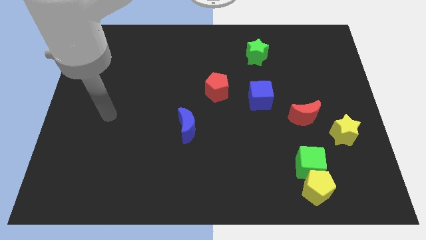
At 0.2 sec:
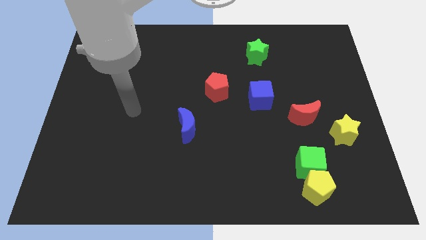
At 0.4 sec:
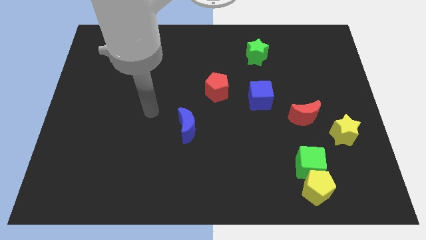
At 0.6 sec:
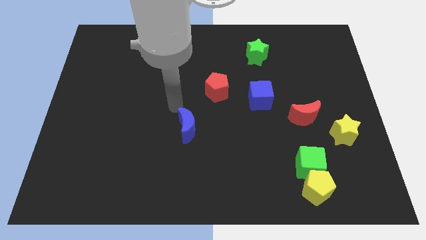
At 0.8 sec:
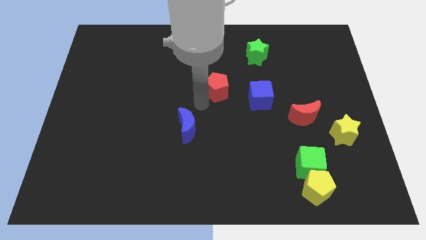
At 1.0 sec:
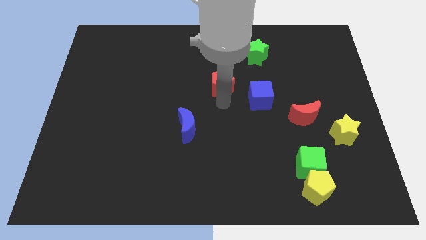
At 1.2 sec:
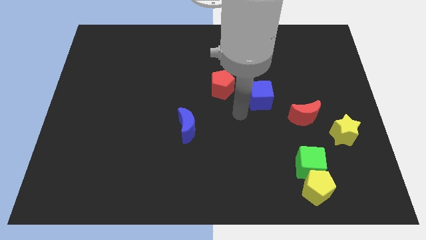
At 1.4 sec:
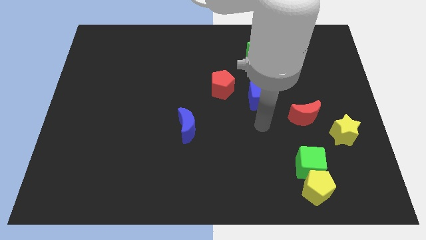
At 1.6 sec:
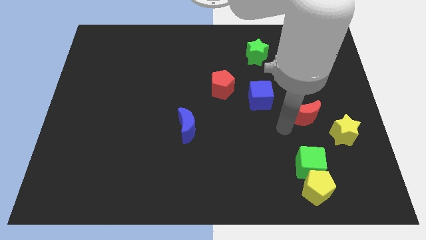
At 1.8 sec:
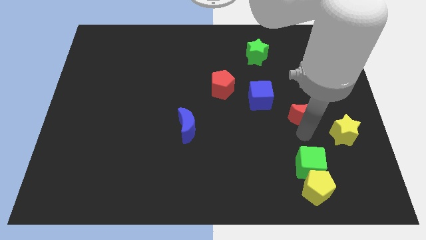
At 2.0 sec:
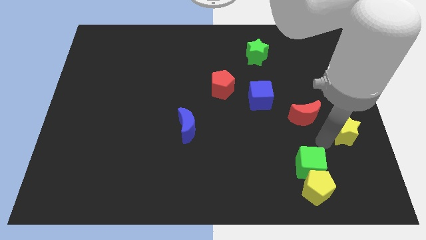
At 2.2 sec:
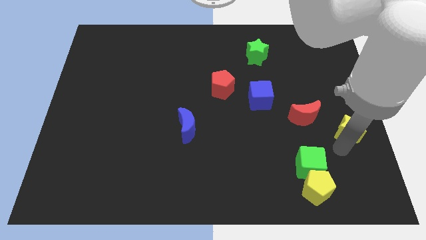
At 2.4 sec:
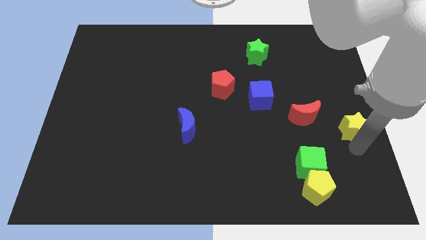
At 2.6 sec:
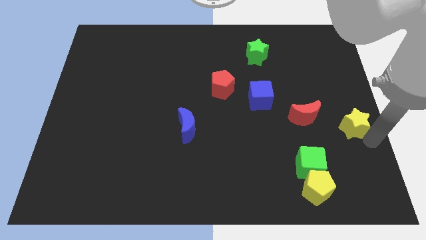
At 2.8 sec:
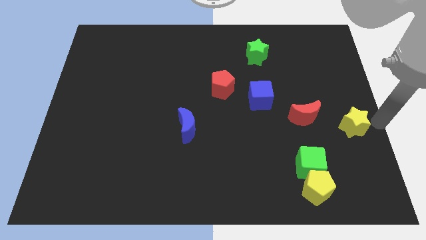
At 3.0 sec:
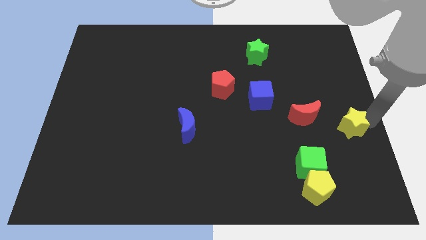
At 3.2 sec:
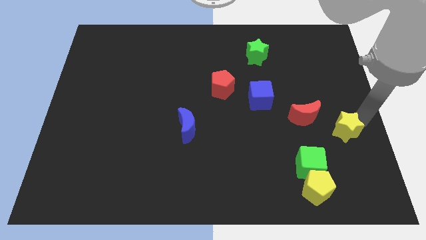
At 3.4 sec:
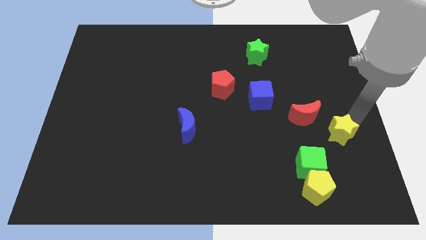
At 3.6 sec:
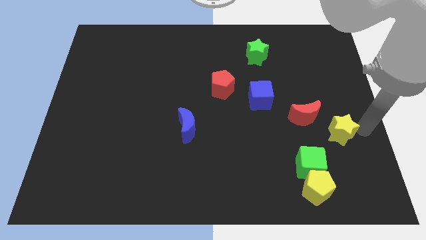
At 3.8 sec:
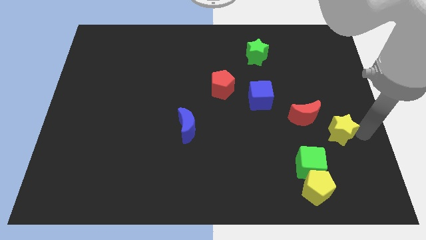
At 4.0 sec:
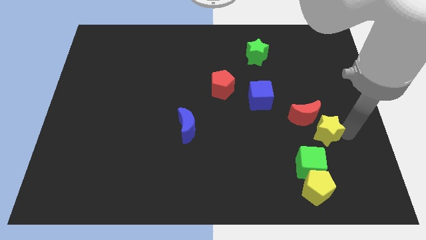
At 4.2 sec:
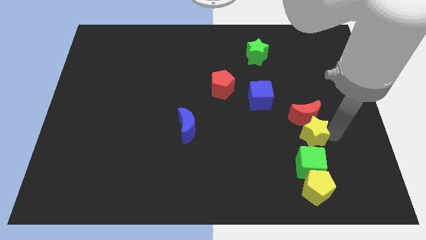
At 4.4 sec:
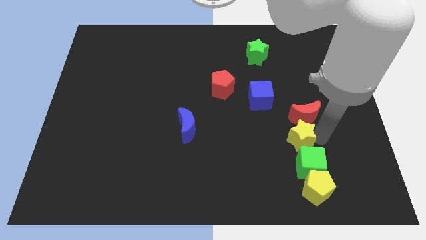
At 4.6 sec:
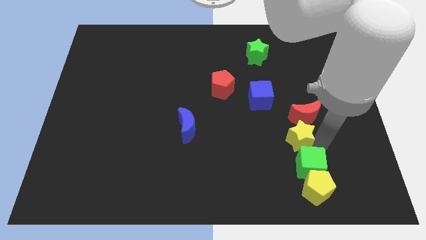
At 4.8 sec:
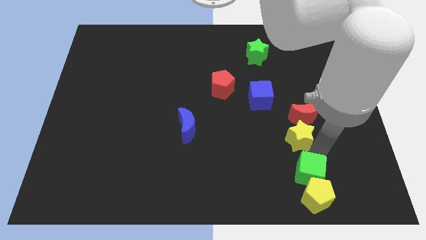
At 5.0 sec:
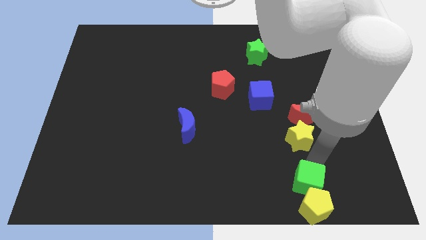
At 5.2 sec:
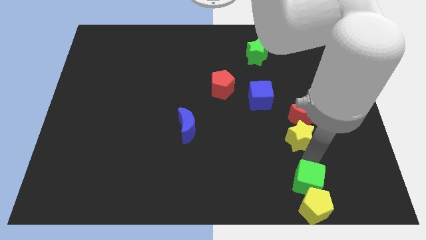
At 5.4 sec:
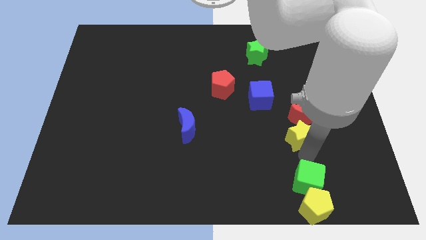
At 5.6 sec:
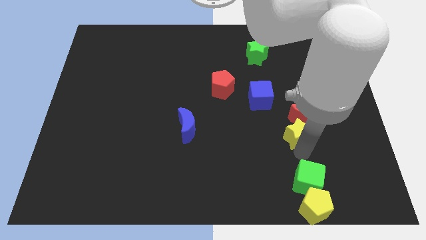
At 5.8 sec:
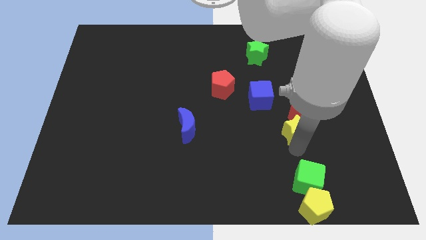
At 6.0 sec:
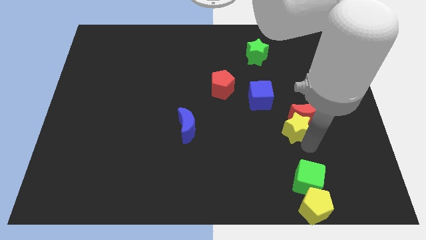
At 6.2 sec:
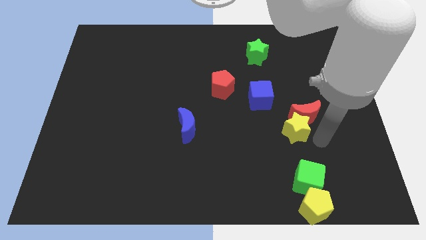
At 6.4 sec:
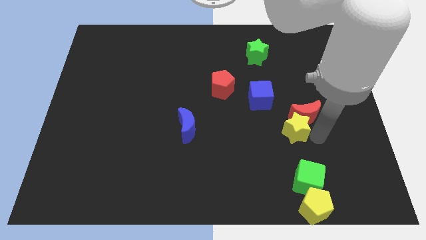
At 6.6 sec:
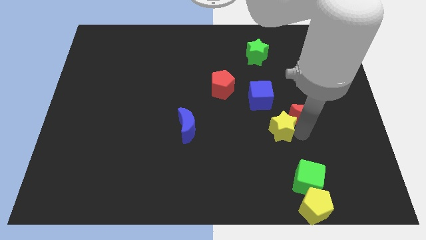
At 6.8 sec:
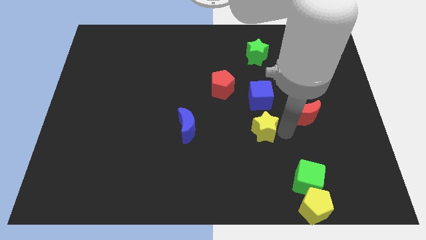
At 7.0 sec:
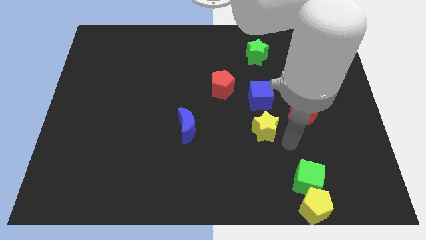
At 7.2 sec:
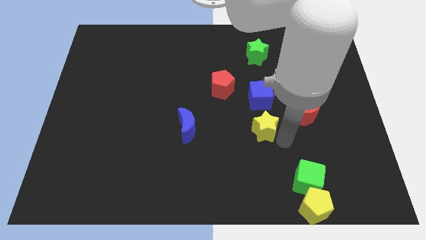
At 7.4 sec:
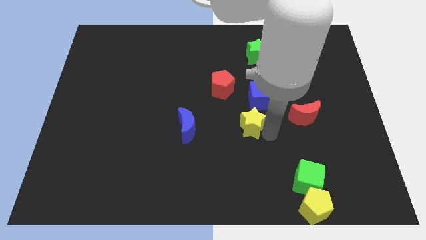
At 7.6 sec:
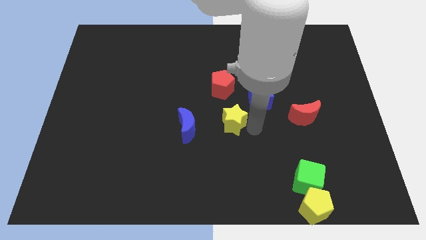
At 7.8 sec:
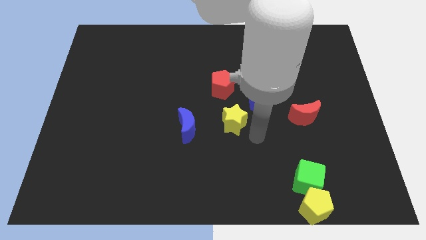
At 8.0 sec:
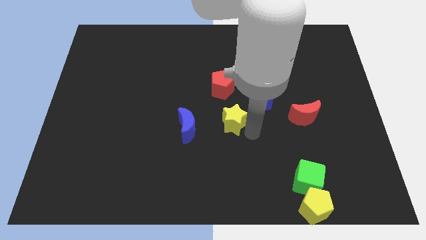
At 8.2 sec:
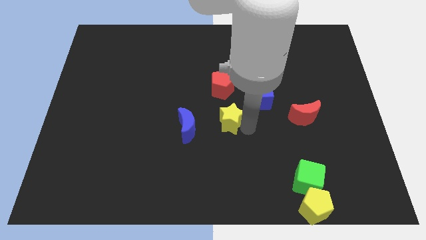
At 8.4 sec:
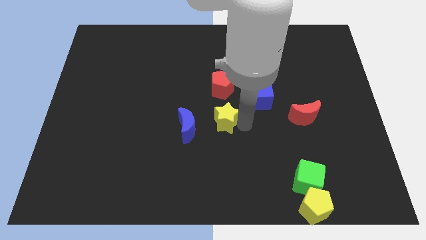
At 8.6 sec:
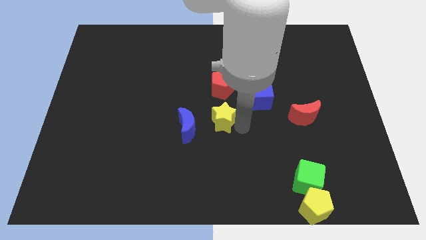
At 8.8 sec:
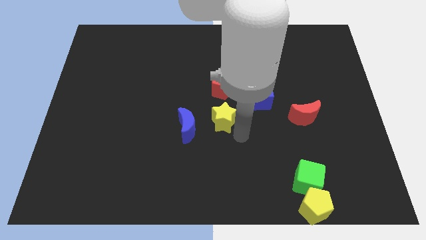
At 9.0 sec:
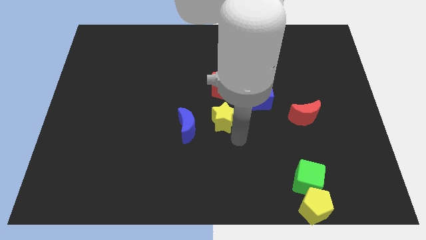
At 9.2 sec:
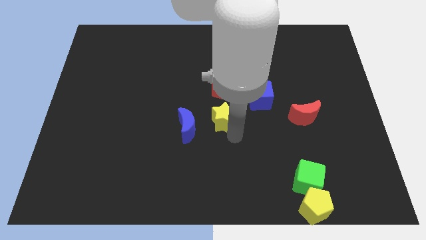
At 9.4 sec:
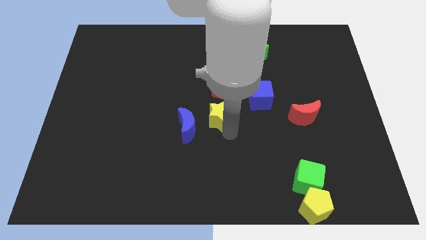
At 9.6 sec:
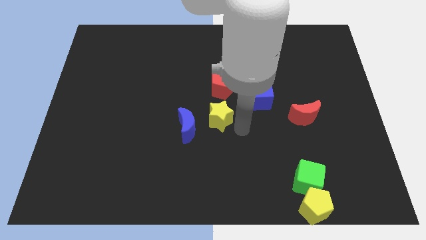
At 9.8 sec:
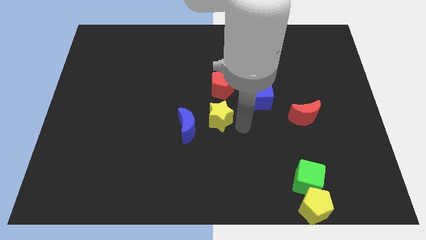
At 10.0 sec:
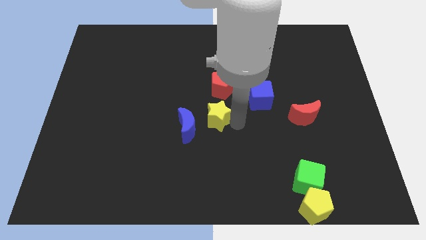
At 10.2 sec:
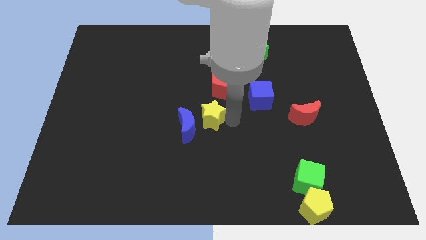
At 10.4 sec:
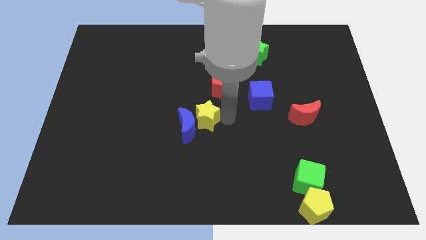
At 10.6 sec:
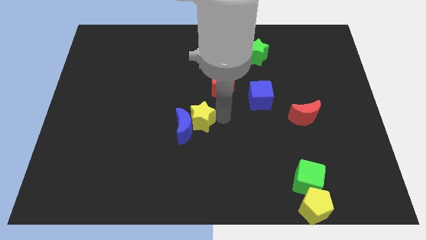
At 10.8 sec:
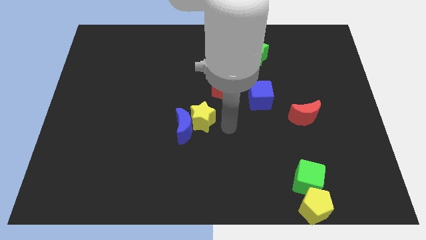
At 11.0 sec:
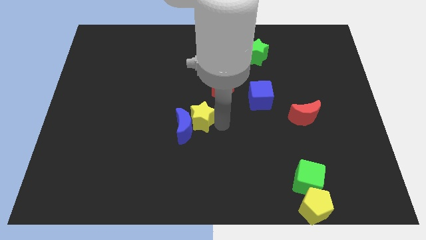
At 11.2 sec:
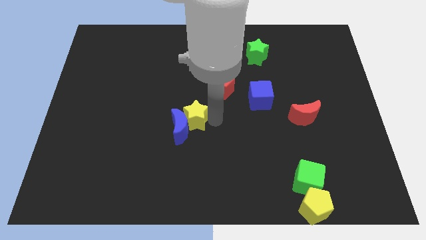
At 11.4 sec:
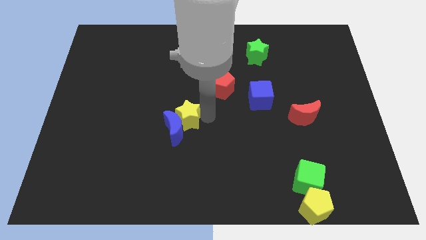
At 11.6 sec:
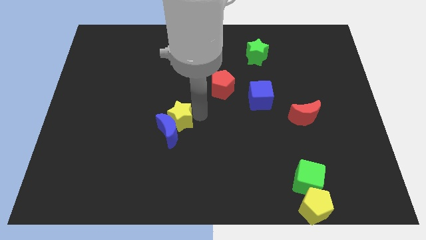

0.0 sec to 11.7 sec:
slide the yellow star to the top left of the blue moon
